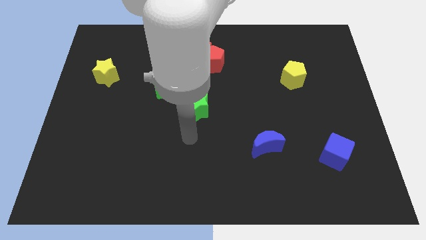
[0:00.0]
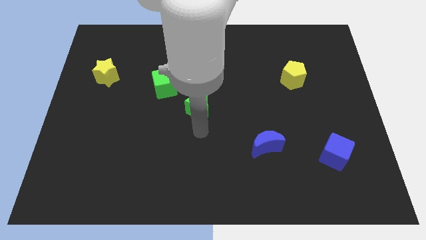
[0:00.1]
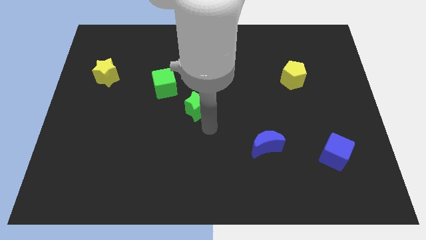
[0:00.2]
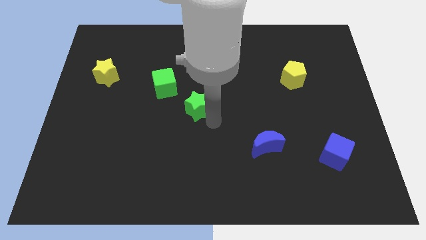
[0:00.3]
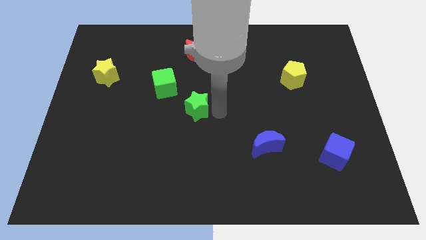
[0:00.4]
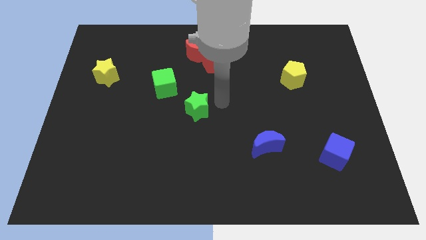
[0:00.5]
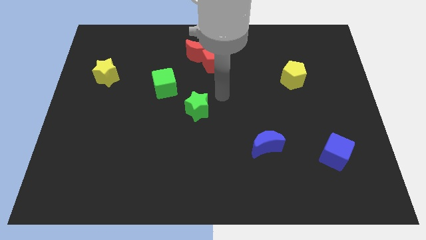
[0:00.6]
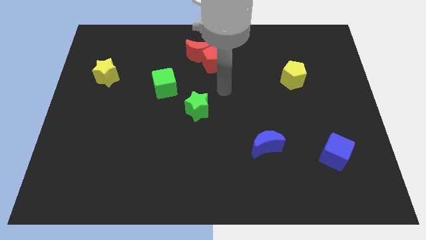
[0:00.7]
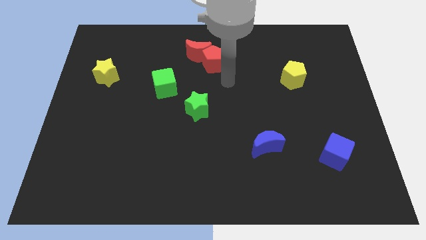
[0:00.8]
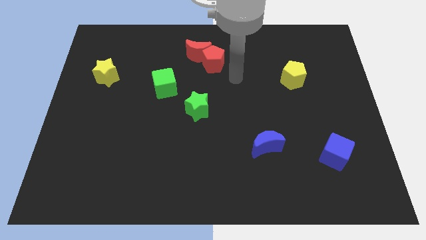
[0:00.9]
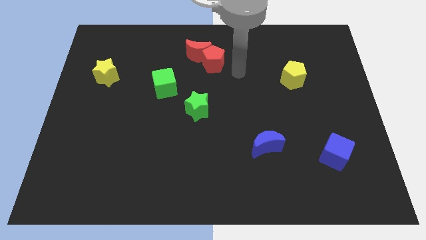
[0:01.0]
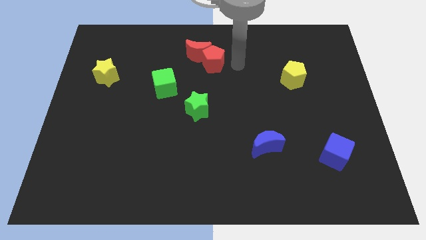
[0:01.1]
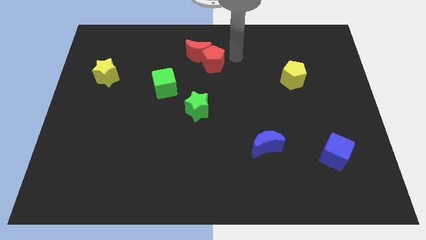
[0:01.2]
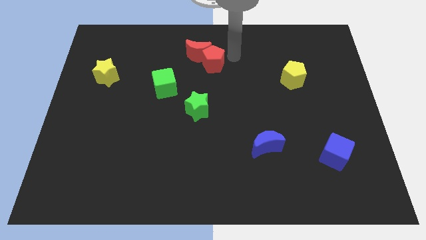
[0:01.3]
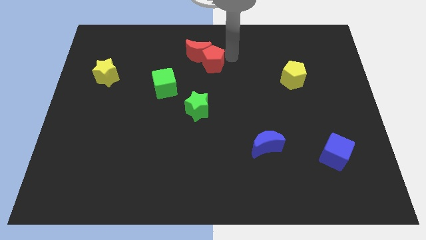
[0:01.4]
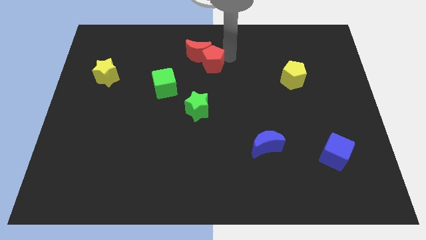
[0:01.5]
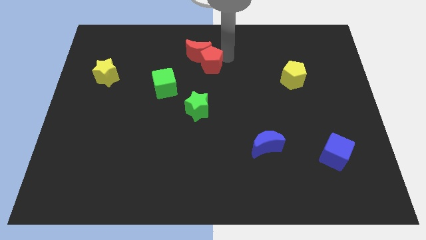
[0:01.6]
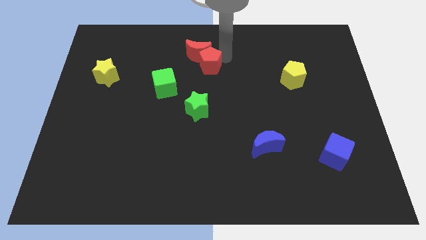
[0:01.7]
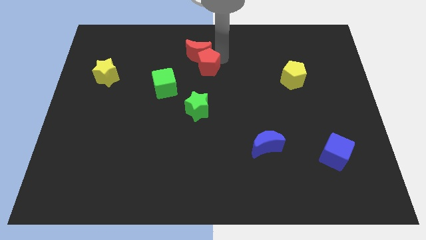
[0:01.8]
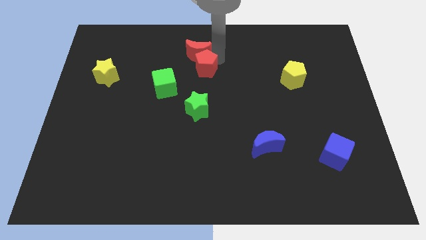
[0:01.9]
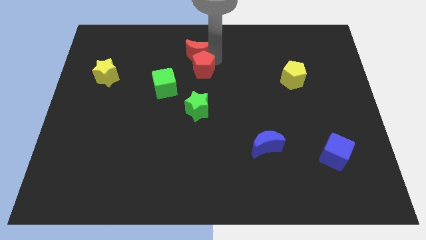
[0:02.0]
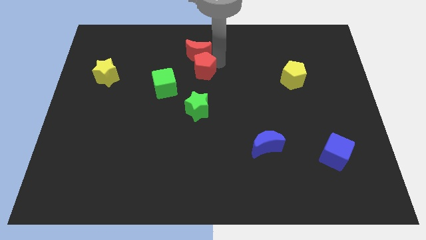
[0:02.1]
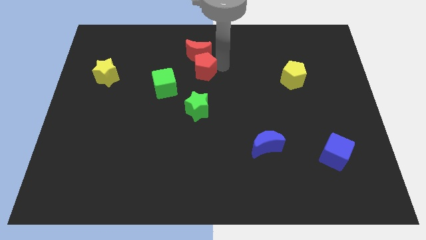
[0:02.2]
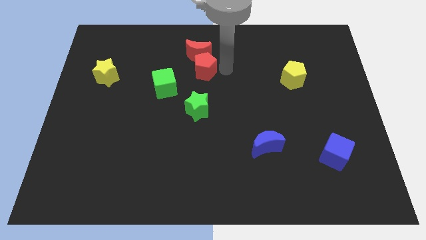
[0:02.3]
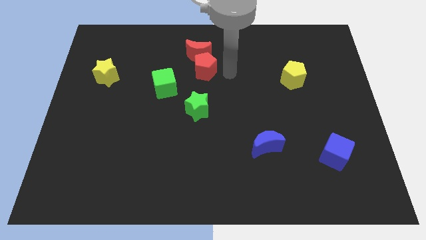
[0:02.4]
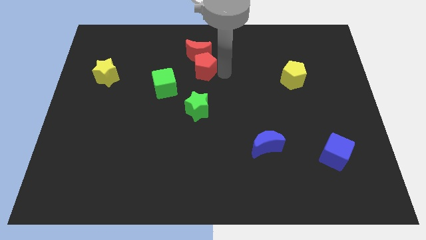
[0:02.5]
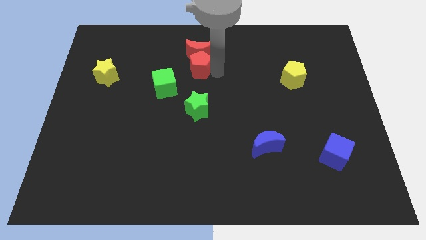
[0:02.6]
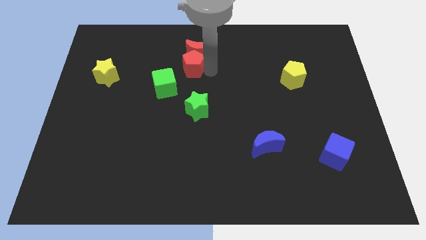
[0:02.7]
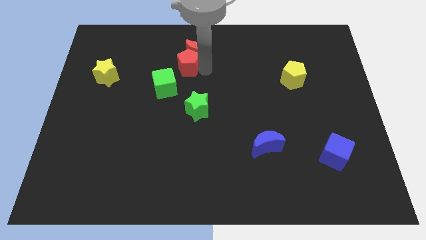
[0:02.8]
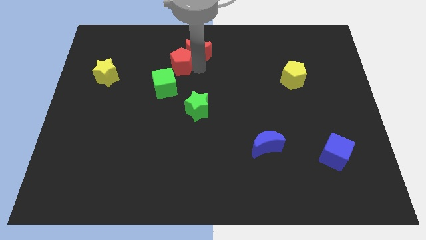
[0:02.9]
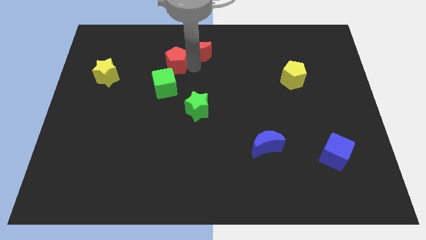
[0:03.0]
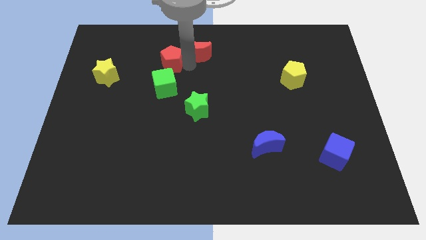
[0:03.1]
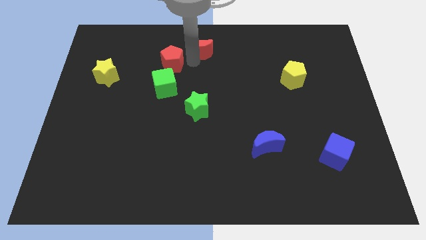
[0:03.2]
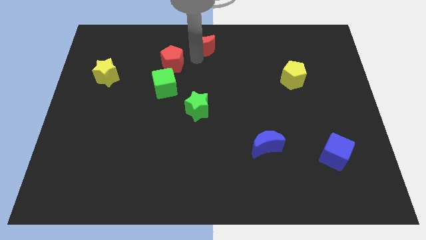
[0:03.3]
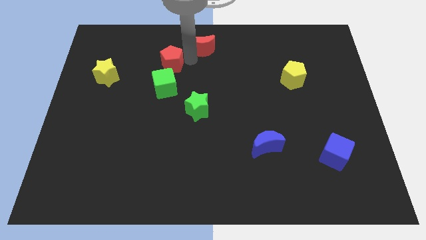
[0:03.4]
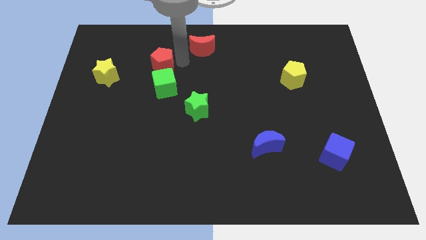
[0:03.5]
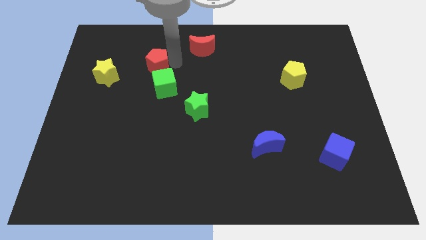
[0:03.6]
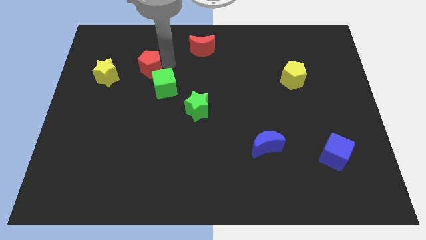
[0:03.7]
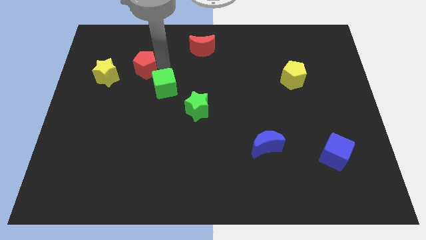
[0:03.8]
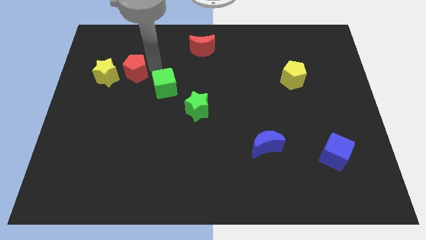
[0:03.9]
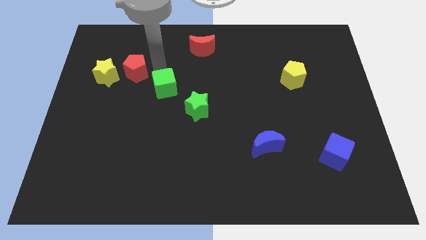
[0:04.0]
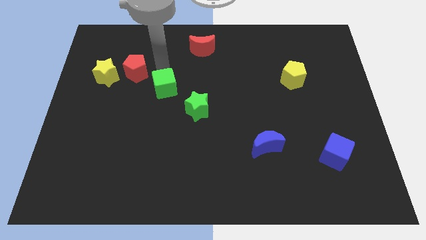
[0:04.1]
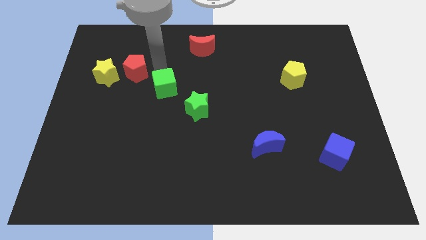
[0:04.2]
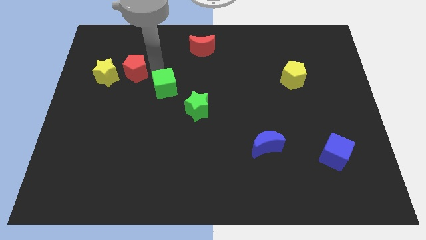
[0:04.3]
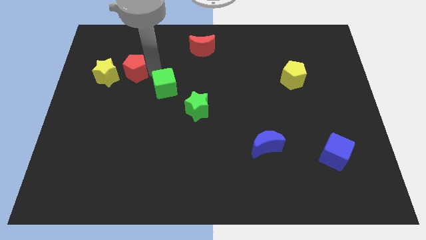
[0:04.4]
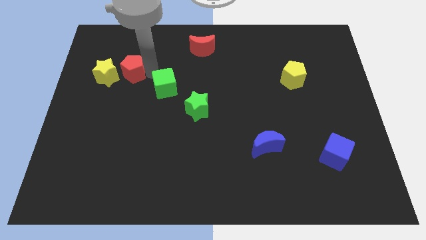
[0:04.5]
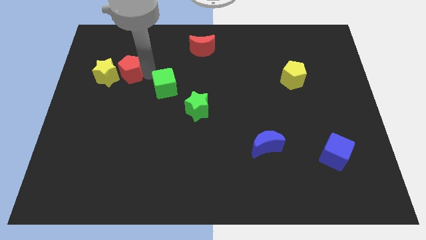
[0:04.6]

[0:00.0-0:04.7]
put the red pentagon to the yellow star

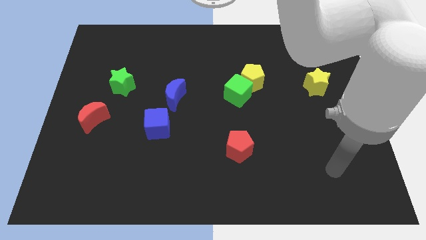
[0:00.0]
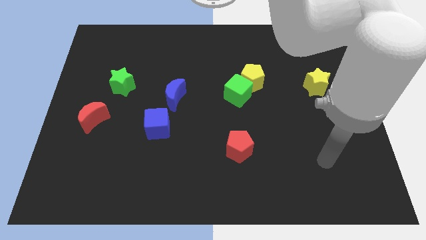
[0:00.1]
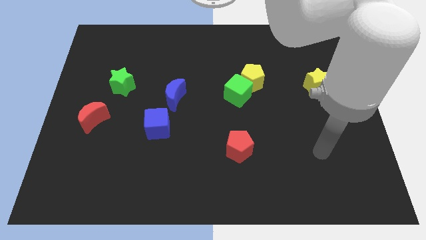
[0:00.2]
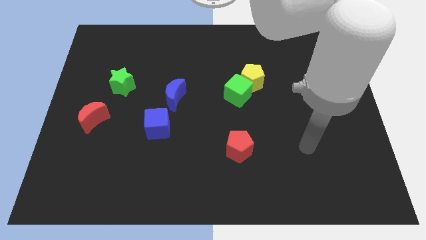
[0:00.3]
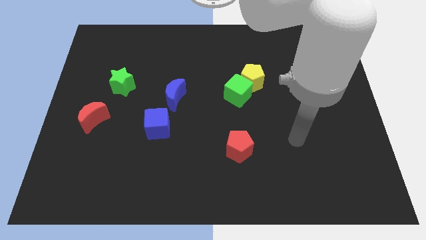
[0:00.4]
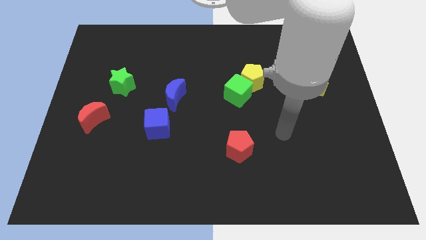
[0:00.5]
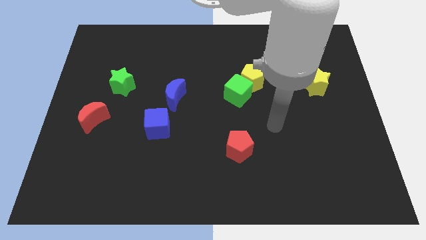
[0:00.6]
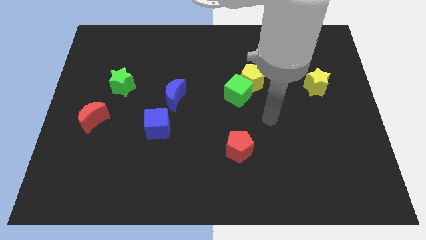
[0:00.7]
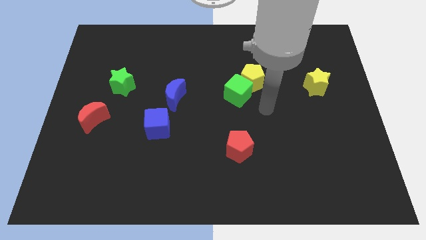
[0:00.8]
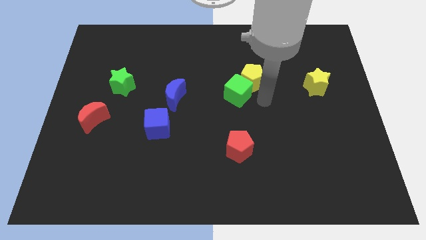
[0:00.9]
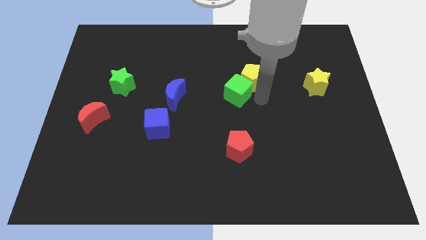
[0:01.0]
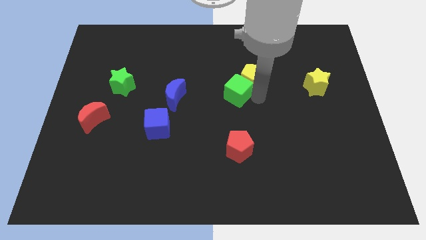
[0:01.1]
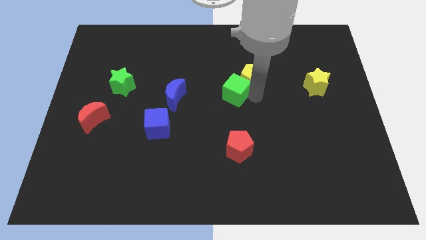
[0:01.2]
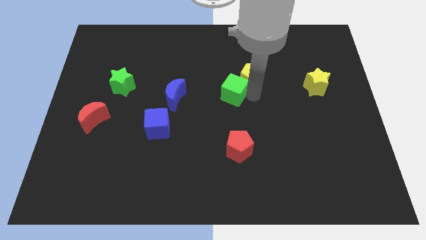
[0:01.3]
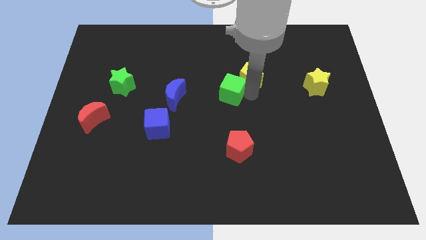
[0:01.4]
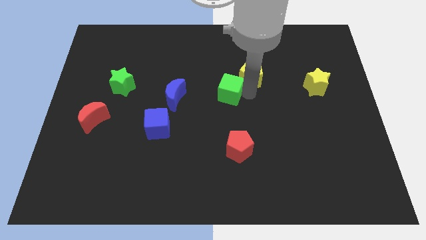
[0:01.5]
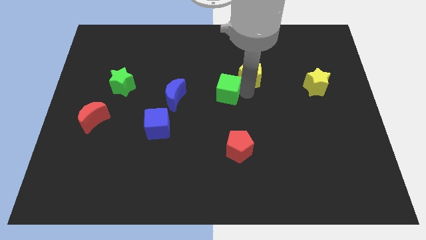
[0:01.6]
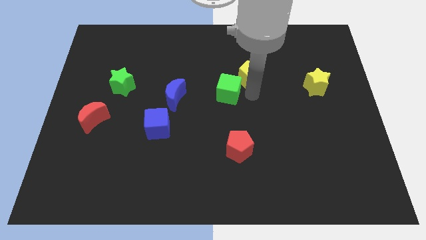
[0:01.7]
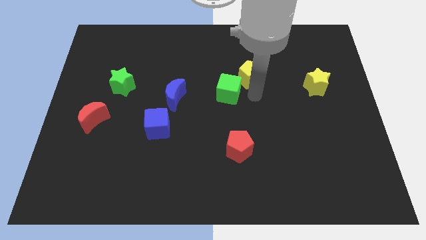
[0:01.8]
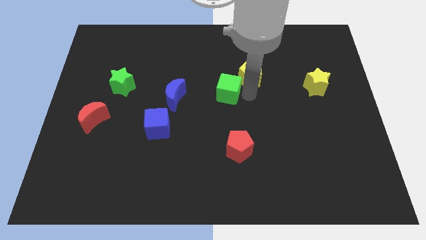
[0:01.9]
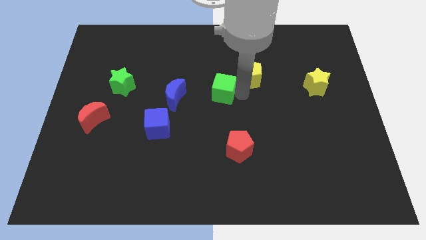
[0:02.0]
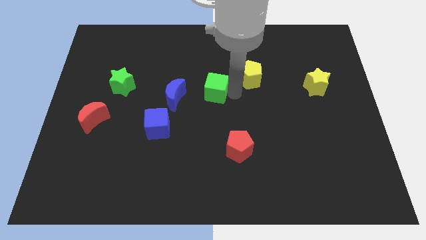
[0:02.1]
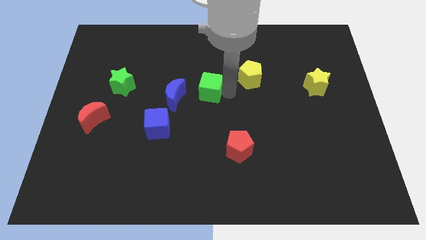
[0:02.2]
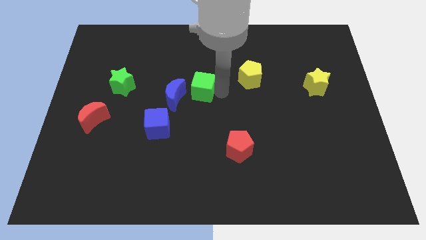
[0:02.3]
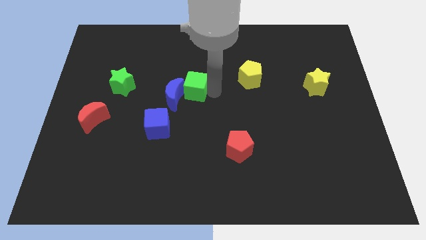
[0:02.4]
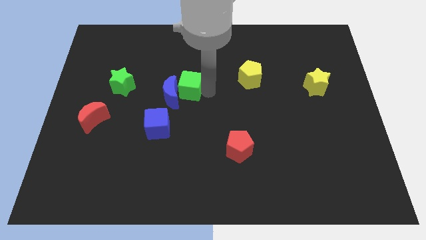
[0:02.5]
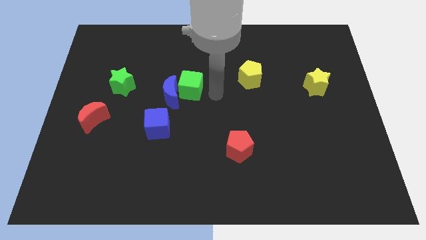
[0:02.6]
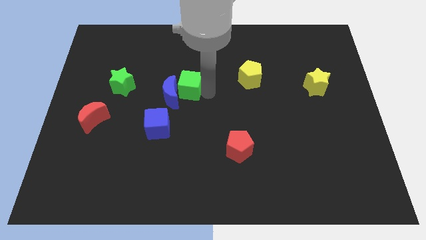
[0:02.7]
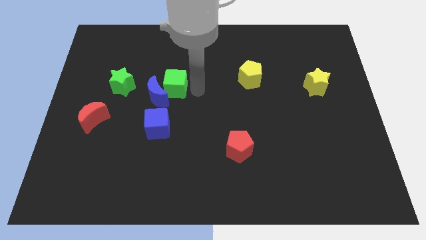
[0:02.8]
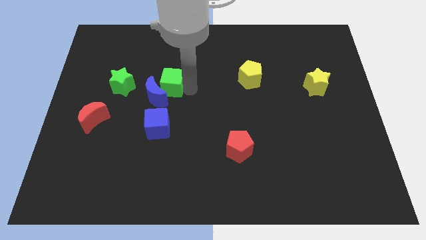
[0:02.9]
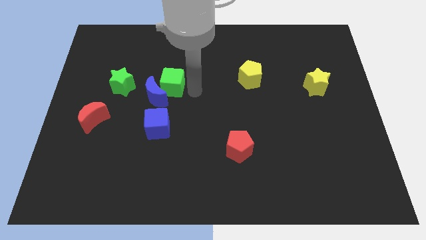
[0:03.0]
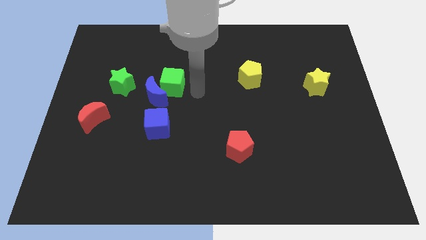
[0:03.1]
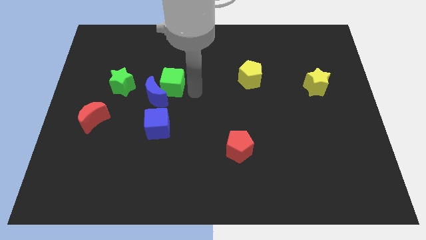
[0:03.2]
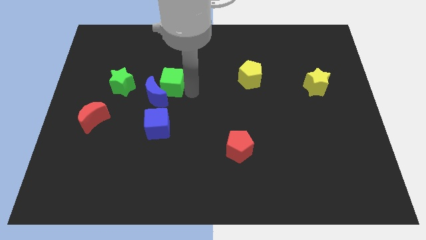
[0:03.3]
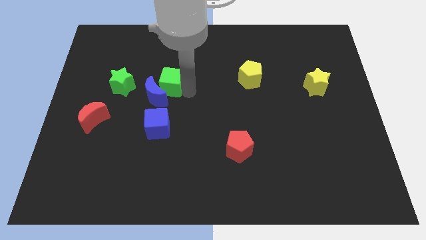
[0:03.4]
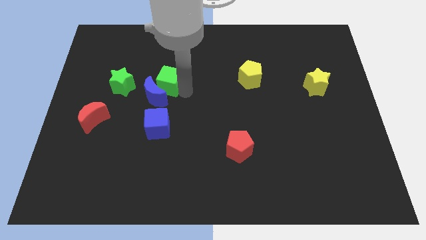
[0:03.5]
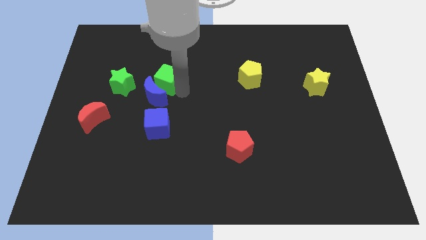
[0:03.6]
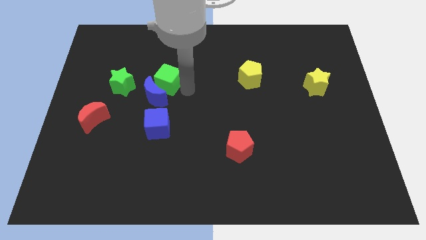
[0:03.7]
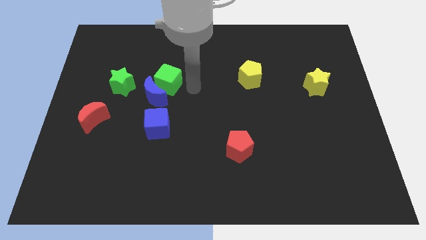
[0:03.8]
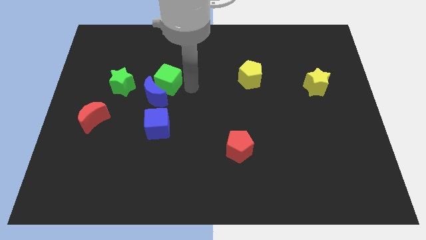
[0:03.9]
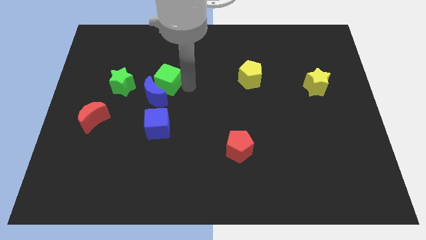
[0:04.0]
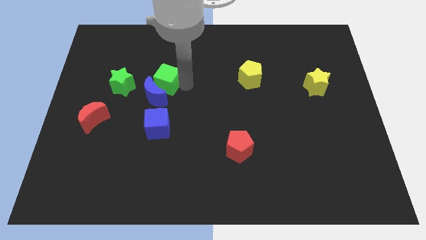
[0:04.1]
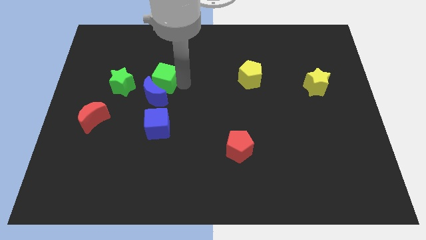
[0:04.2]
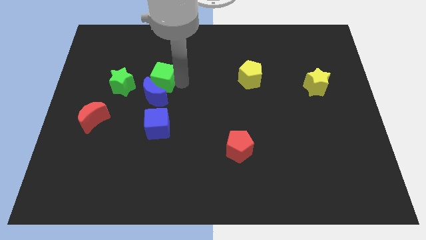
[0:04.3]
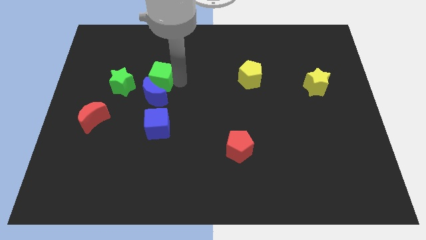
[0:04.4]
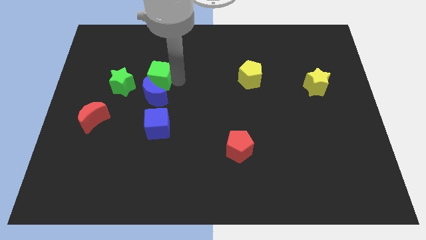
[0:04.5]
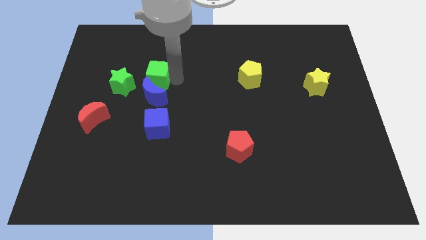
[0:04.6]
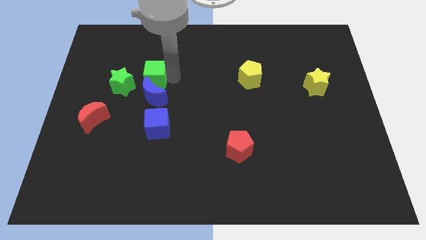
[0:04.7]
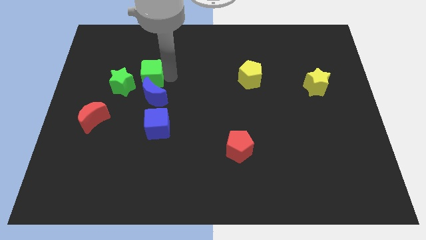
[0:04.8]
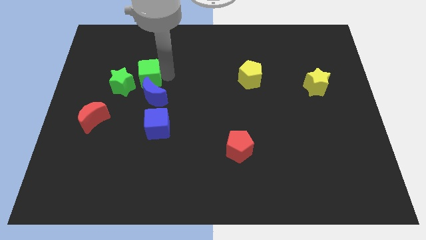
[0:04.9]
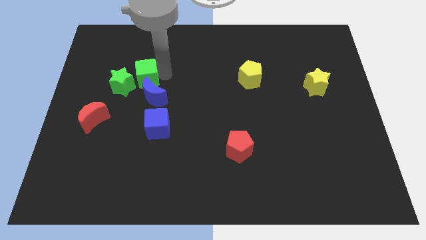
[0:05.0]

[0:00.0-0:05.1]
put the green cube to the green star
